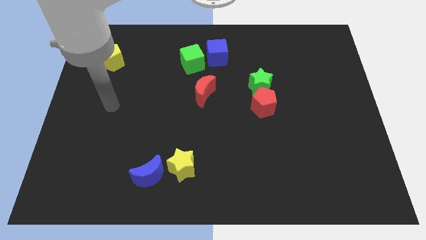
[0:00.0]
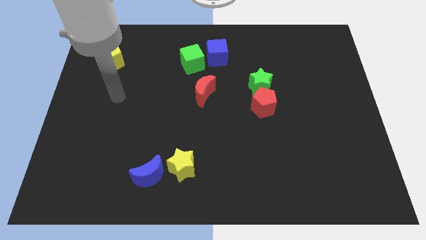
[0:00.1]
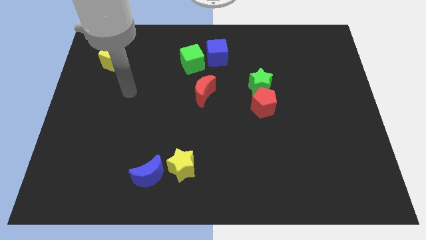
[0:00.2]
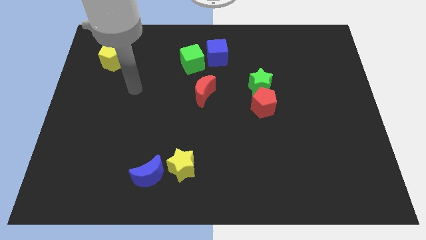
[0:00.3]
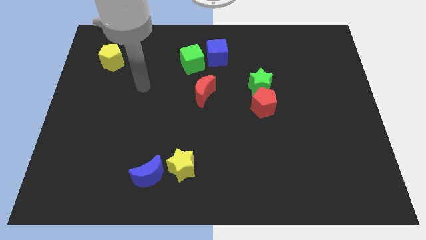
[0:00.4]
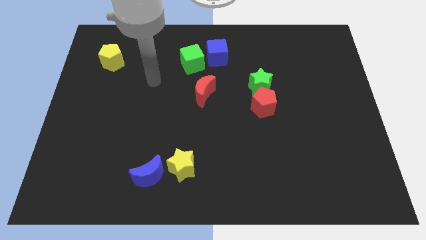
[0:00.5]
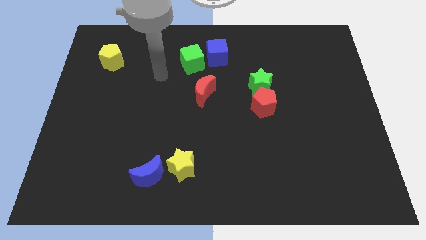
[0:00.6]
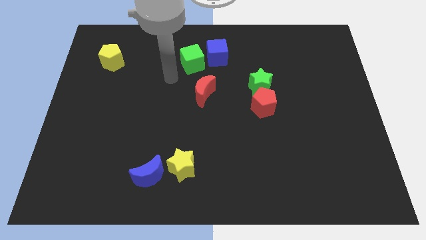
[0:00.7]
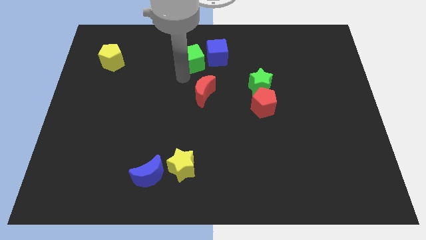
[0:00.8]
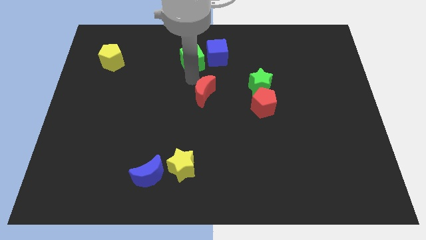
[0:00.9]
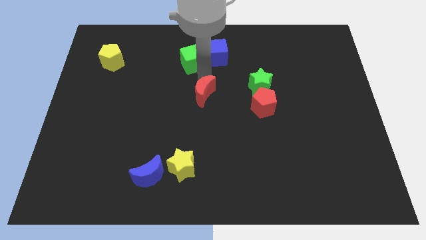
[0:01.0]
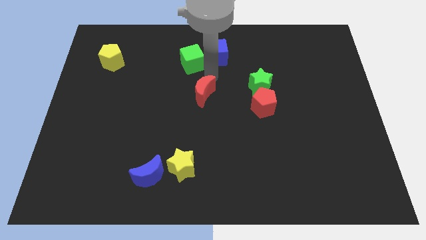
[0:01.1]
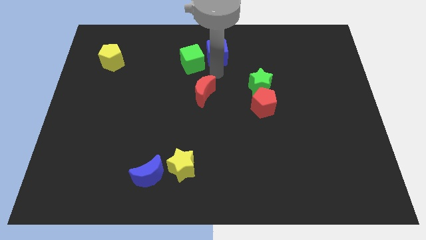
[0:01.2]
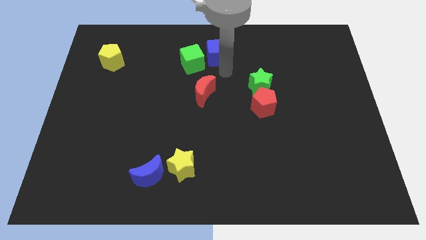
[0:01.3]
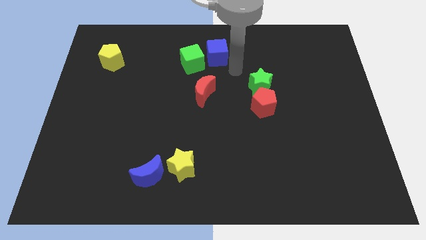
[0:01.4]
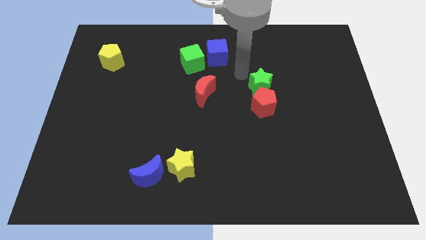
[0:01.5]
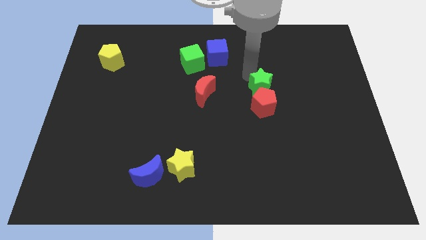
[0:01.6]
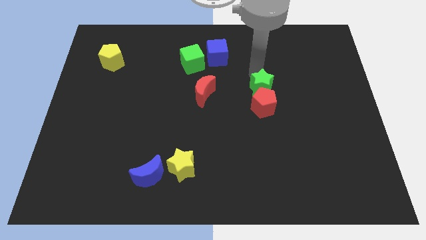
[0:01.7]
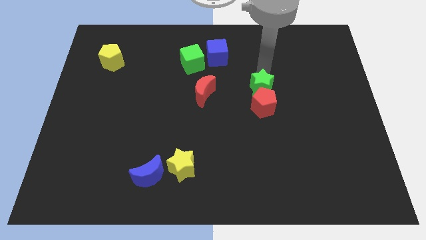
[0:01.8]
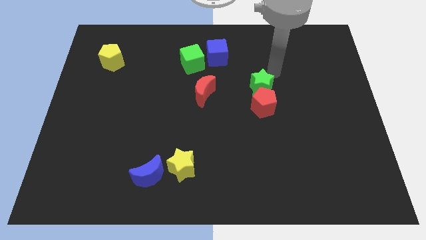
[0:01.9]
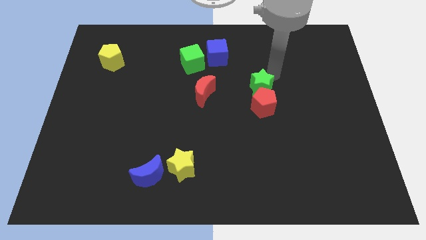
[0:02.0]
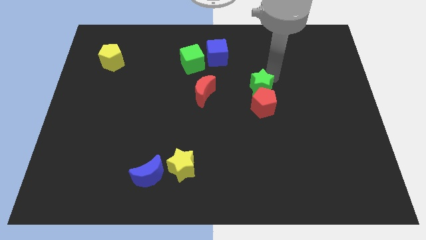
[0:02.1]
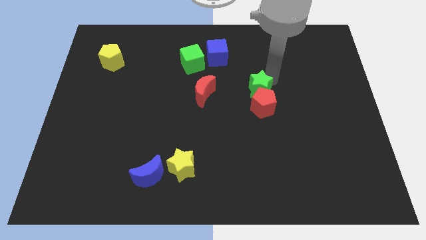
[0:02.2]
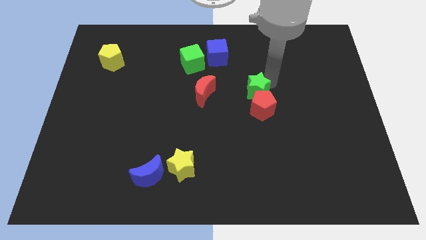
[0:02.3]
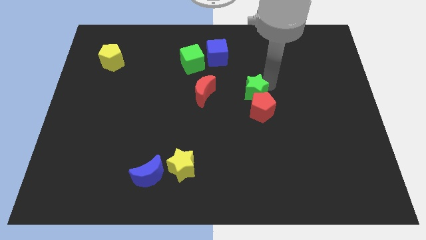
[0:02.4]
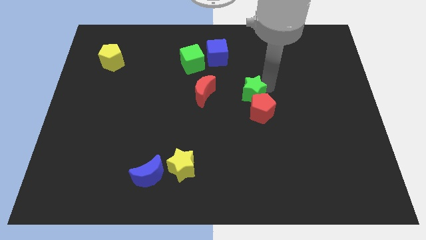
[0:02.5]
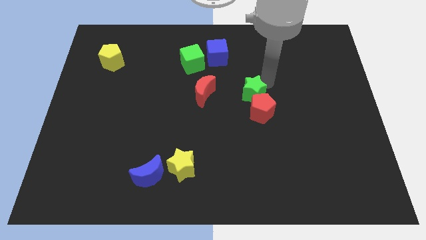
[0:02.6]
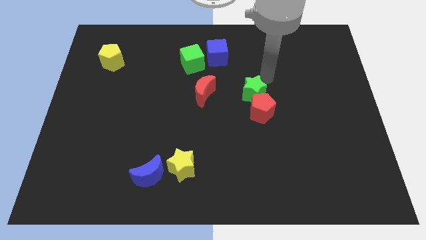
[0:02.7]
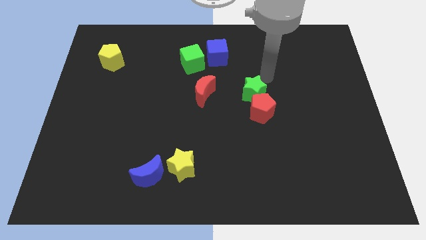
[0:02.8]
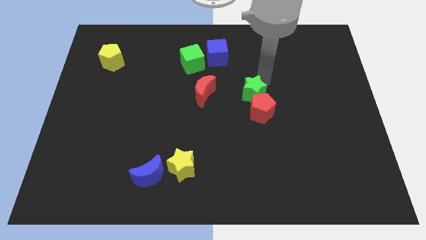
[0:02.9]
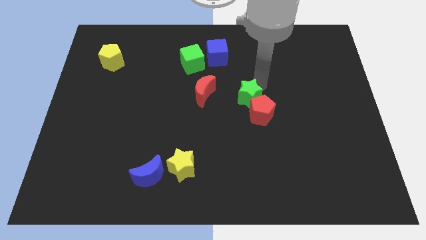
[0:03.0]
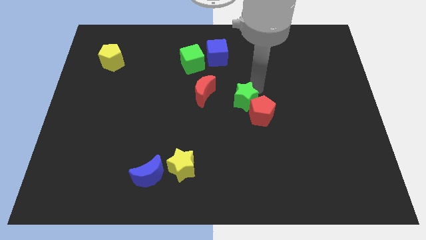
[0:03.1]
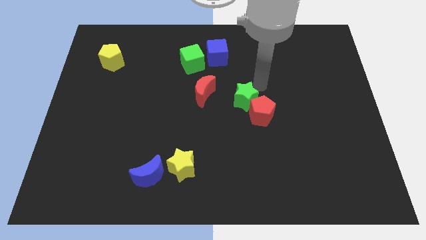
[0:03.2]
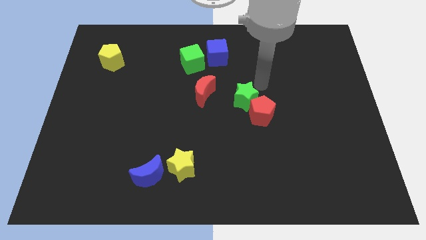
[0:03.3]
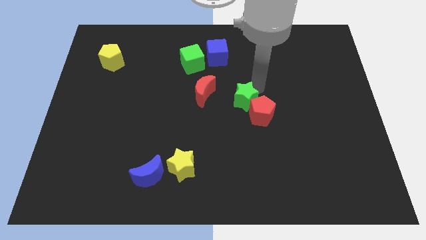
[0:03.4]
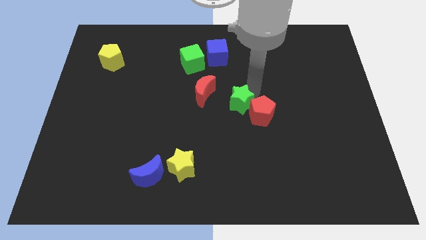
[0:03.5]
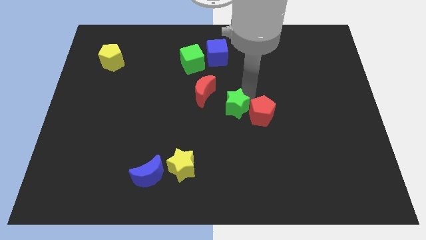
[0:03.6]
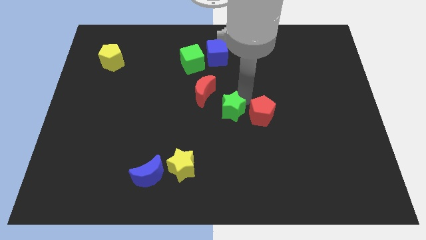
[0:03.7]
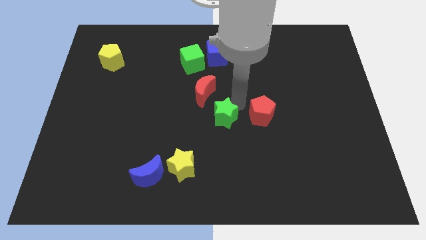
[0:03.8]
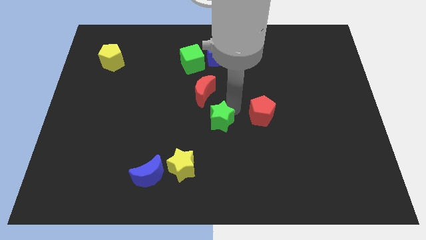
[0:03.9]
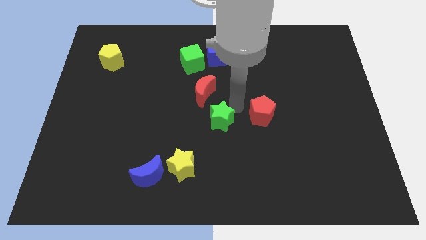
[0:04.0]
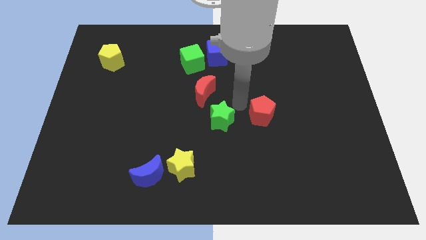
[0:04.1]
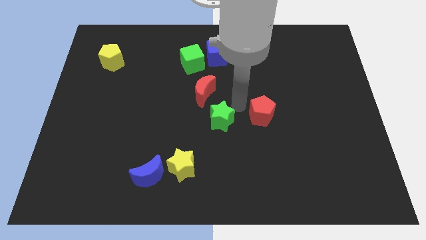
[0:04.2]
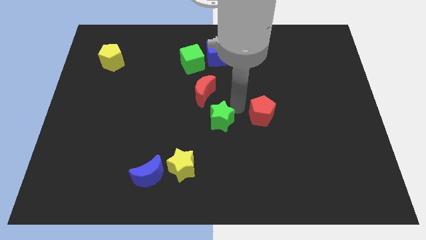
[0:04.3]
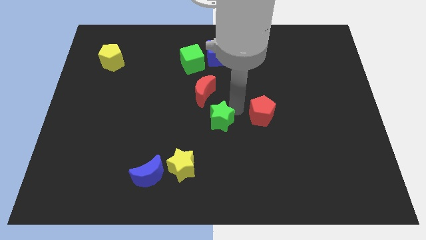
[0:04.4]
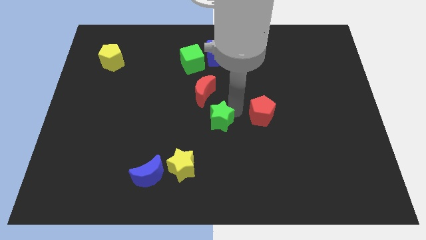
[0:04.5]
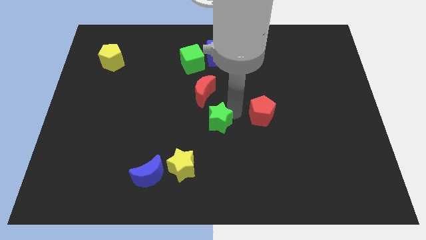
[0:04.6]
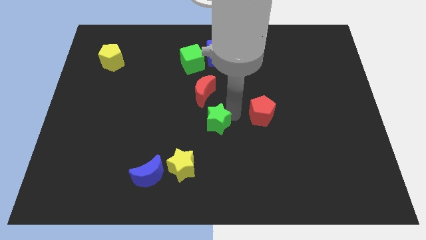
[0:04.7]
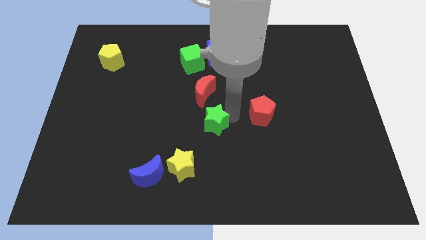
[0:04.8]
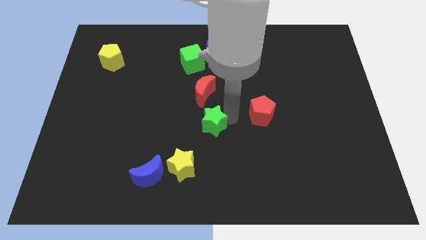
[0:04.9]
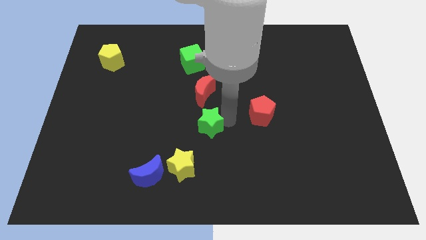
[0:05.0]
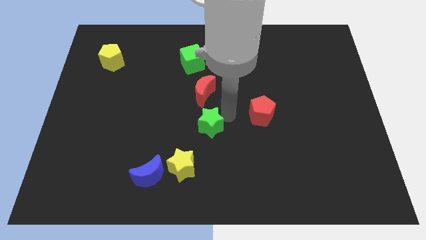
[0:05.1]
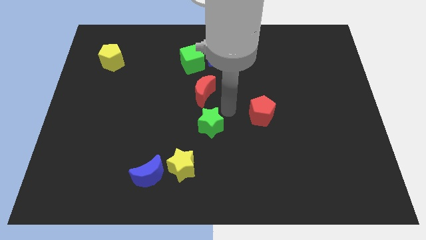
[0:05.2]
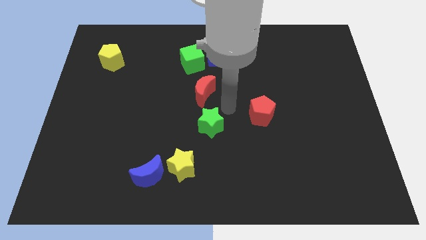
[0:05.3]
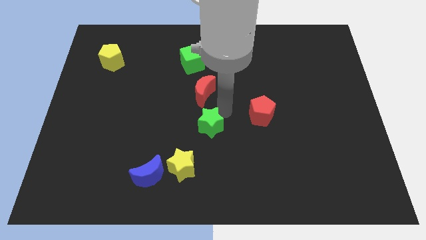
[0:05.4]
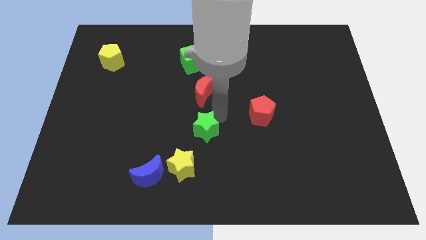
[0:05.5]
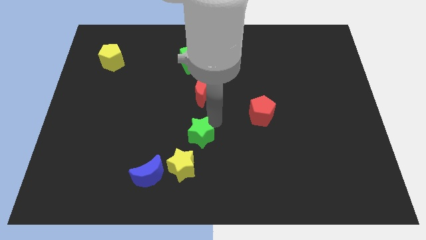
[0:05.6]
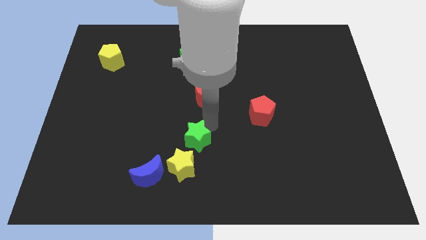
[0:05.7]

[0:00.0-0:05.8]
push the green star diagonally up and to the right of the blue moon

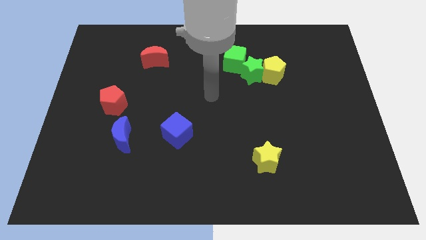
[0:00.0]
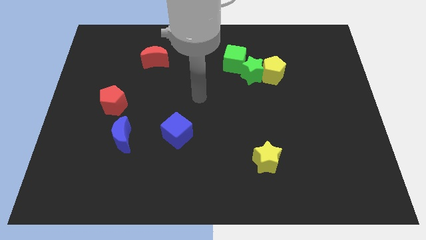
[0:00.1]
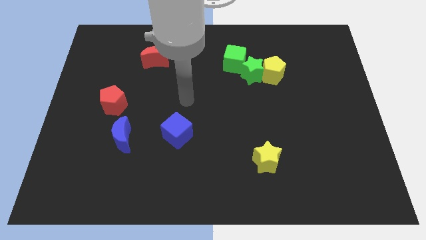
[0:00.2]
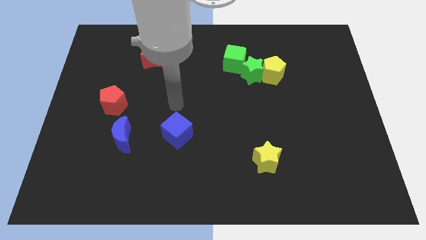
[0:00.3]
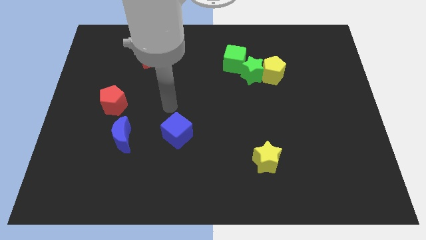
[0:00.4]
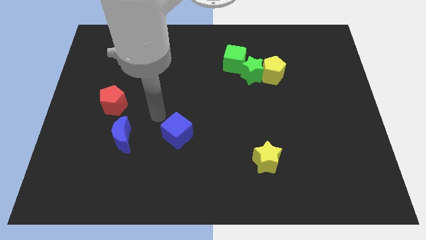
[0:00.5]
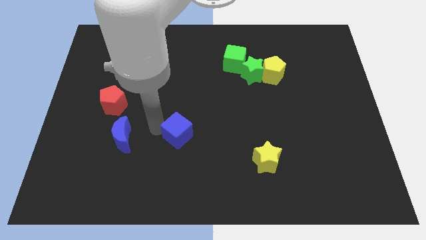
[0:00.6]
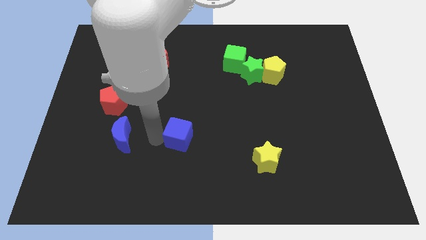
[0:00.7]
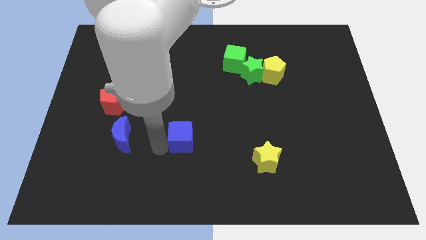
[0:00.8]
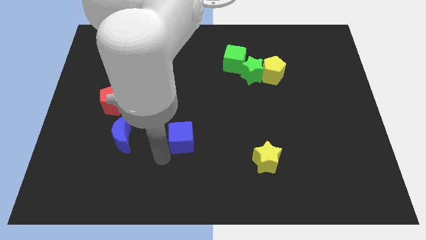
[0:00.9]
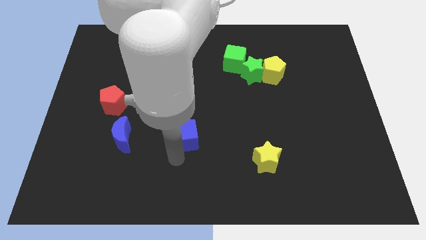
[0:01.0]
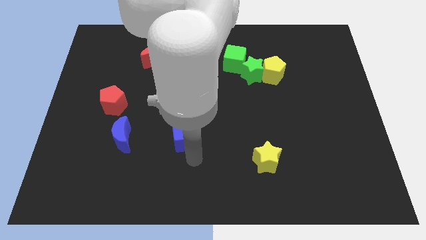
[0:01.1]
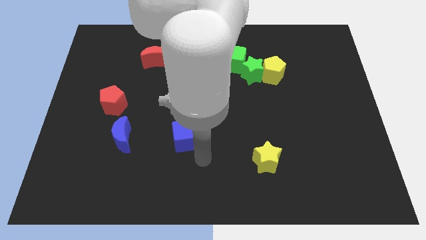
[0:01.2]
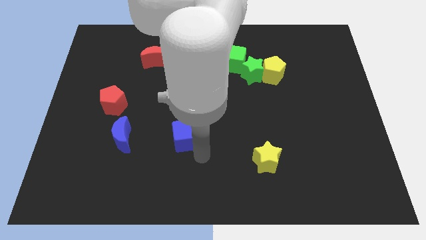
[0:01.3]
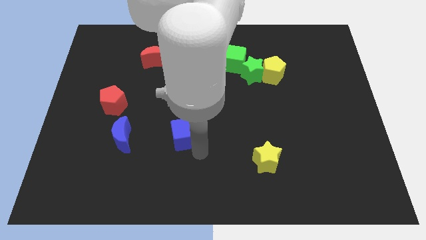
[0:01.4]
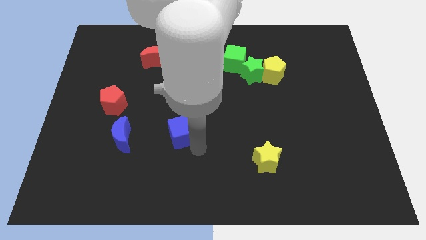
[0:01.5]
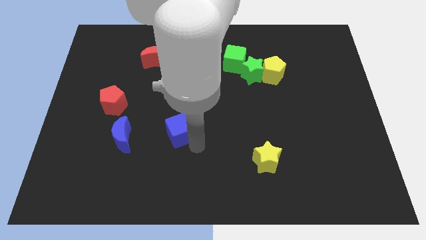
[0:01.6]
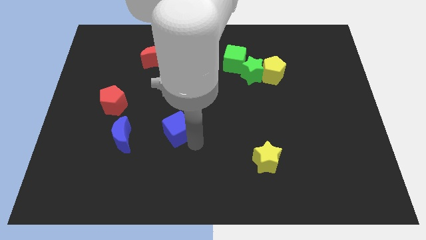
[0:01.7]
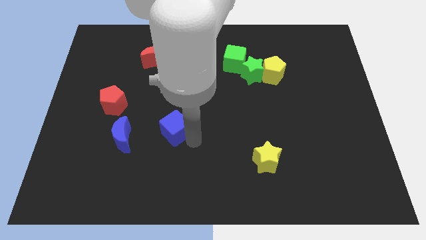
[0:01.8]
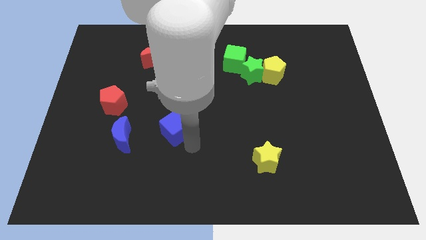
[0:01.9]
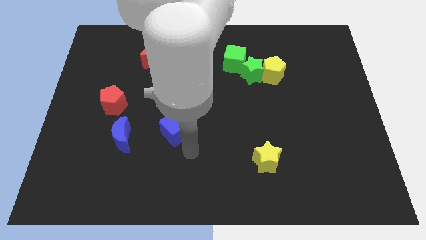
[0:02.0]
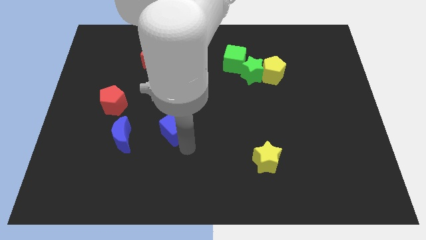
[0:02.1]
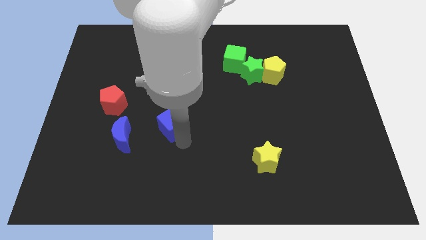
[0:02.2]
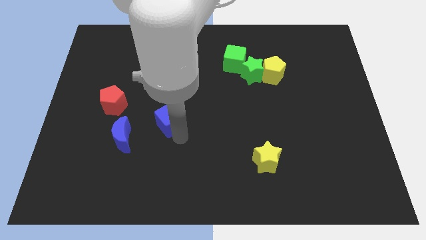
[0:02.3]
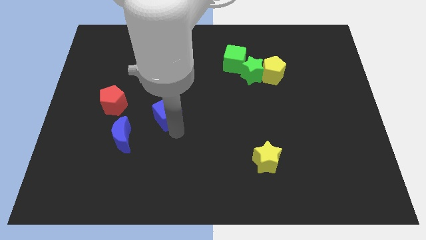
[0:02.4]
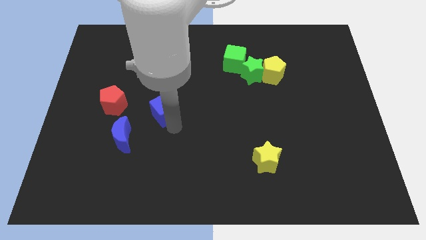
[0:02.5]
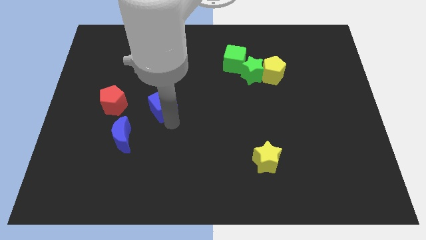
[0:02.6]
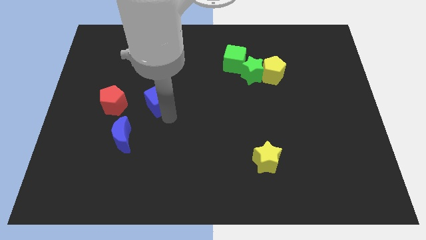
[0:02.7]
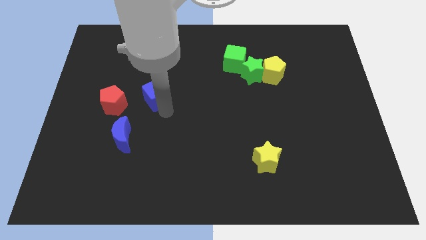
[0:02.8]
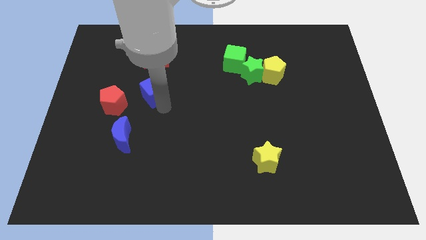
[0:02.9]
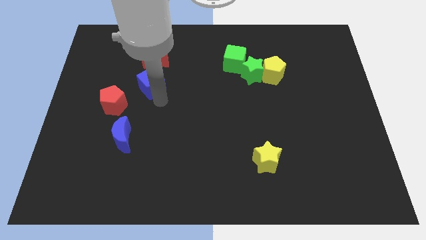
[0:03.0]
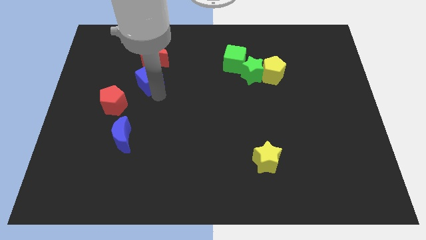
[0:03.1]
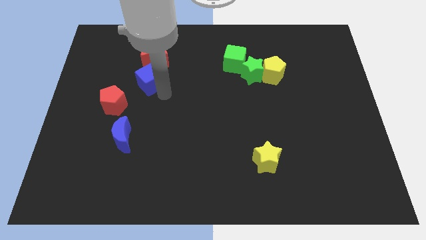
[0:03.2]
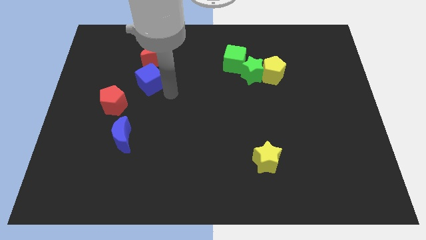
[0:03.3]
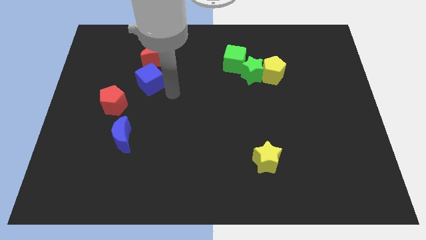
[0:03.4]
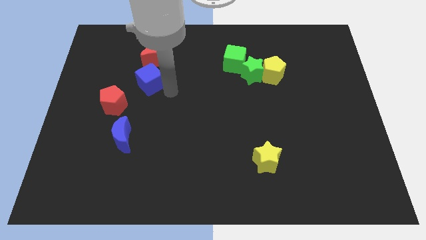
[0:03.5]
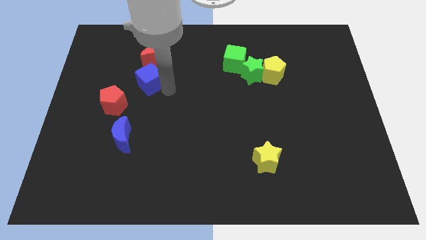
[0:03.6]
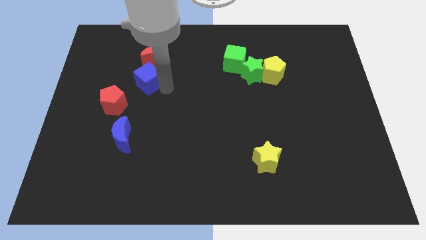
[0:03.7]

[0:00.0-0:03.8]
slide the blue cube to the bottom left side of the red moon
